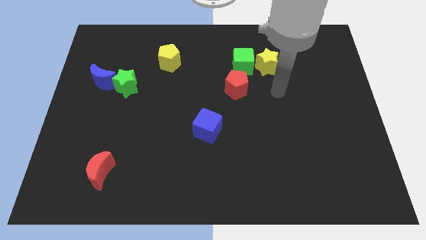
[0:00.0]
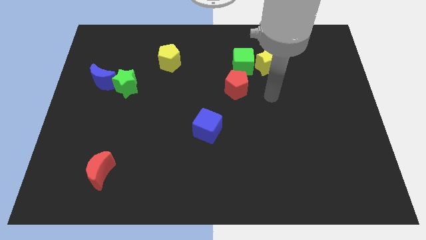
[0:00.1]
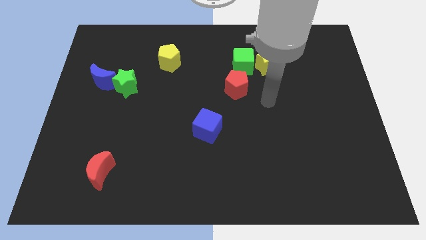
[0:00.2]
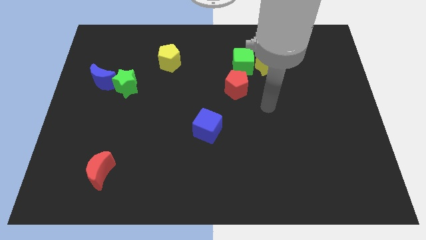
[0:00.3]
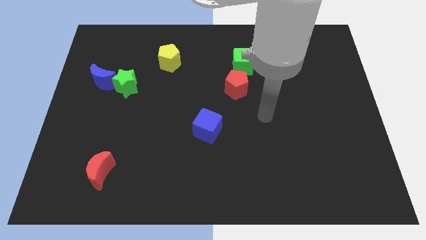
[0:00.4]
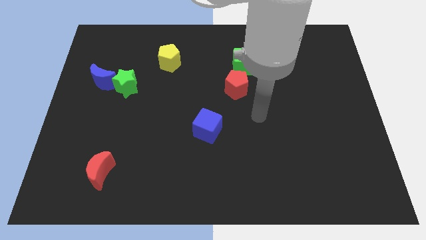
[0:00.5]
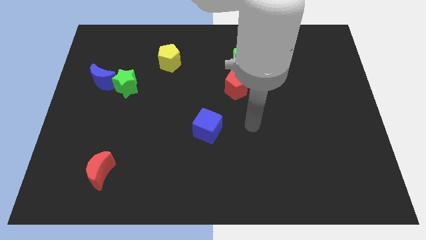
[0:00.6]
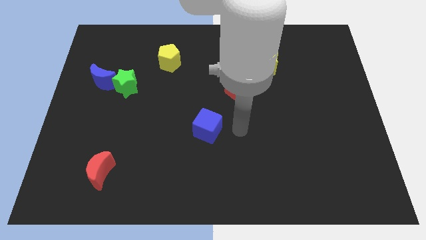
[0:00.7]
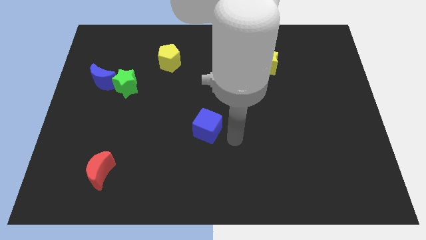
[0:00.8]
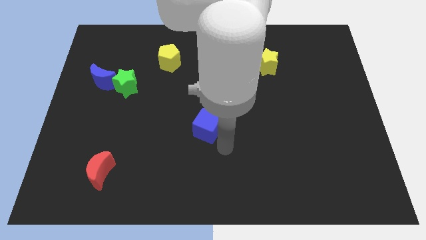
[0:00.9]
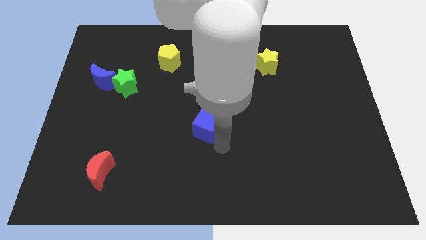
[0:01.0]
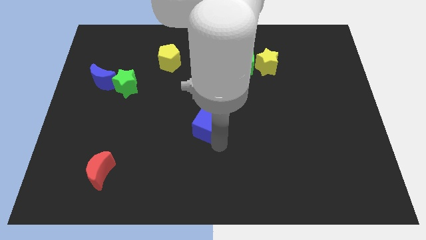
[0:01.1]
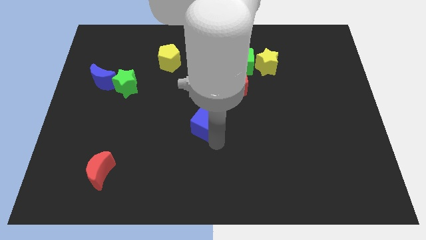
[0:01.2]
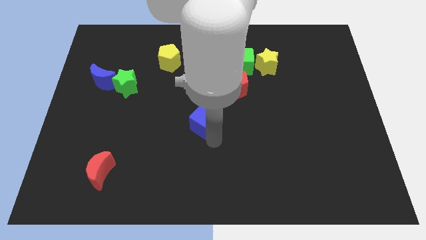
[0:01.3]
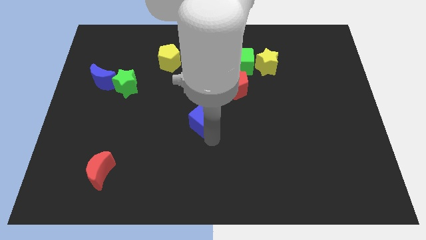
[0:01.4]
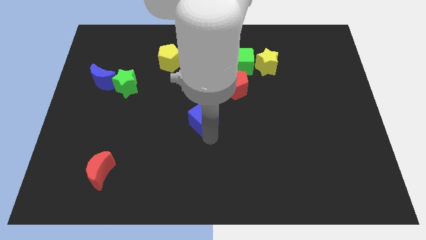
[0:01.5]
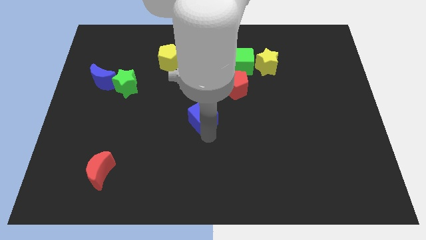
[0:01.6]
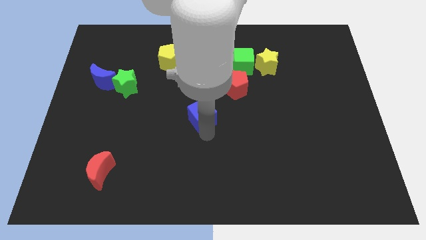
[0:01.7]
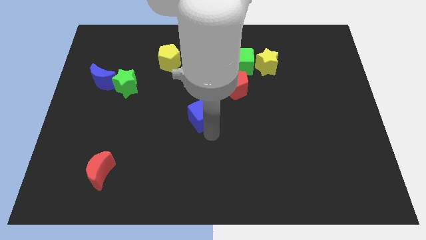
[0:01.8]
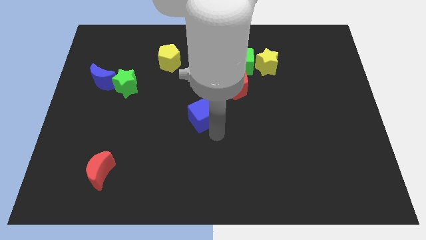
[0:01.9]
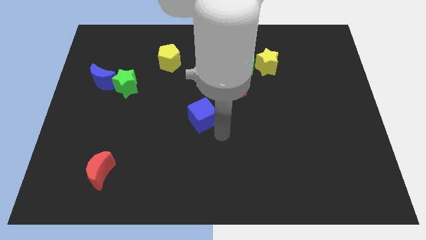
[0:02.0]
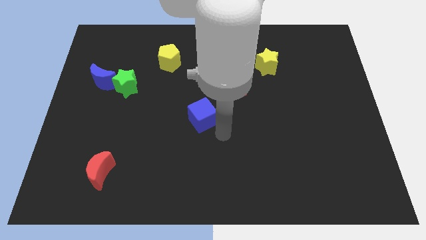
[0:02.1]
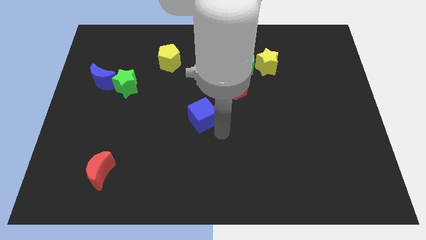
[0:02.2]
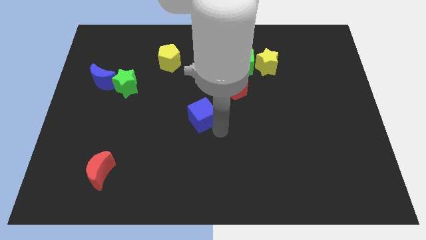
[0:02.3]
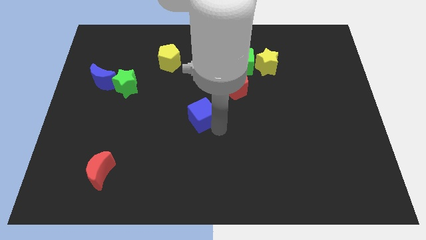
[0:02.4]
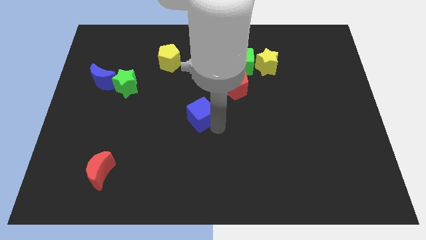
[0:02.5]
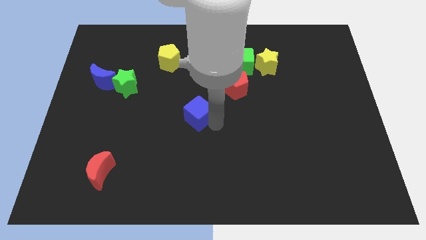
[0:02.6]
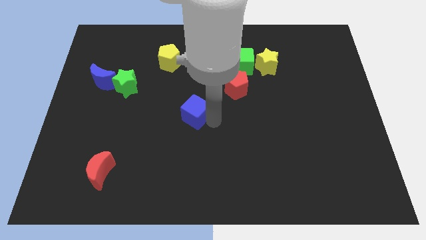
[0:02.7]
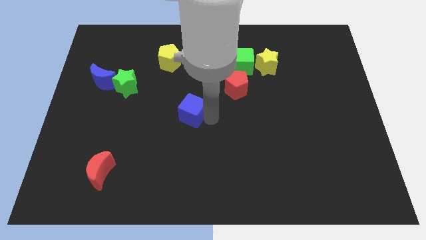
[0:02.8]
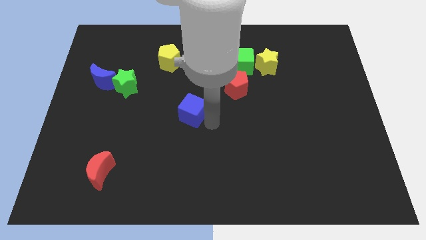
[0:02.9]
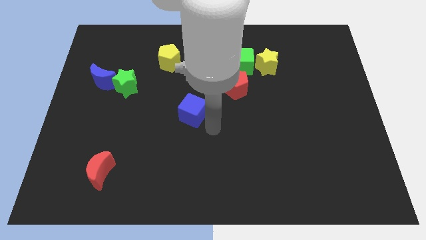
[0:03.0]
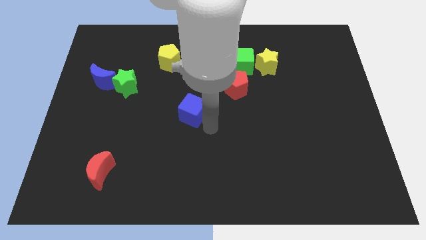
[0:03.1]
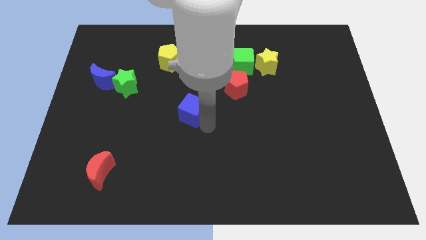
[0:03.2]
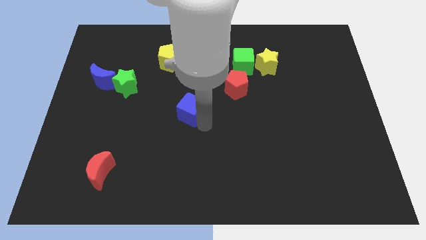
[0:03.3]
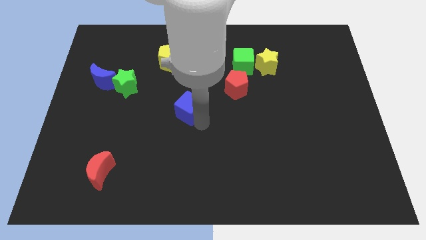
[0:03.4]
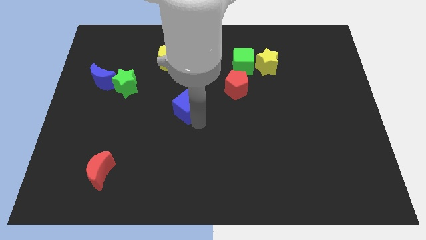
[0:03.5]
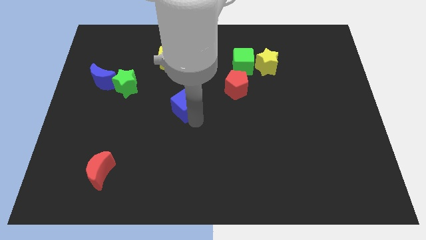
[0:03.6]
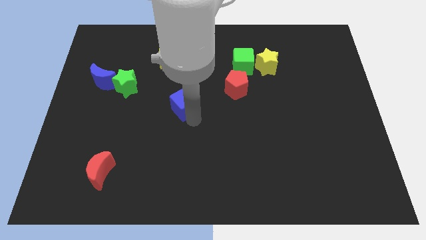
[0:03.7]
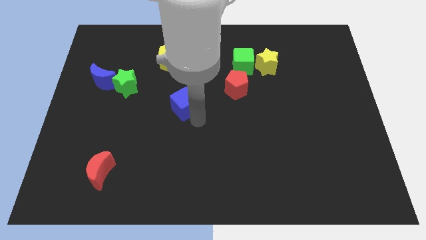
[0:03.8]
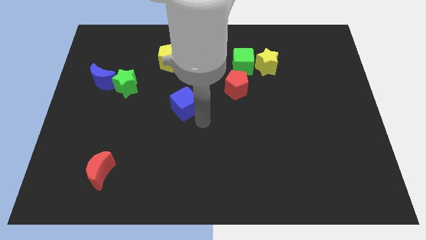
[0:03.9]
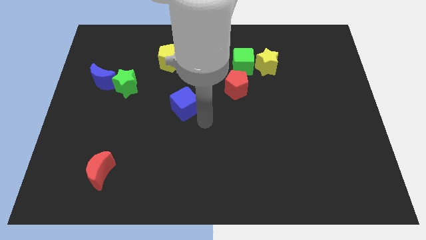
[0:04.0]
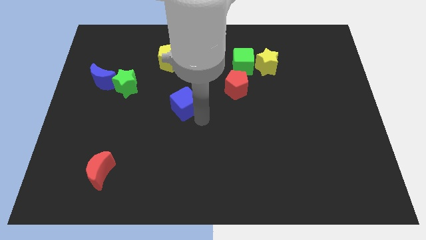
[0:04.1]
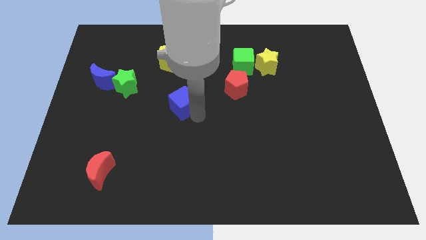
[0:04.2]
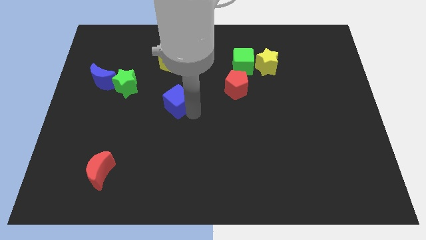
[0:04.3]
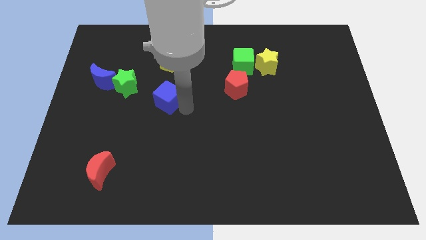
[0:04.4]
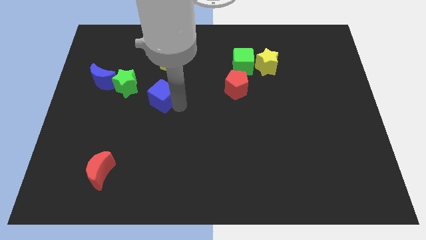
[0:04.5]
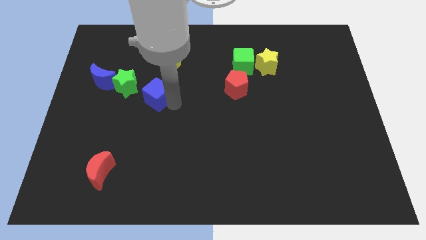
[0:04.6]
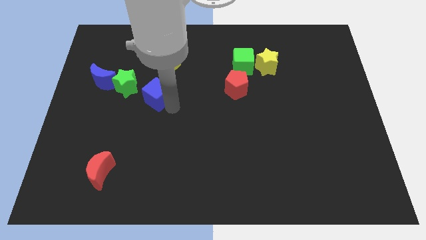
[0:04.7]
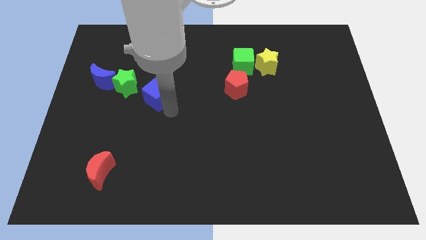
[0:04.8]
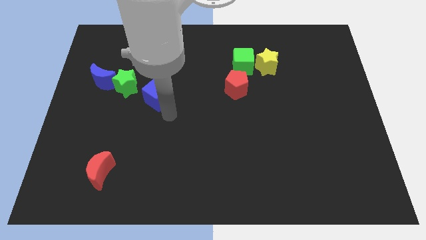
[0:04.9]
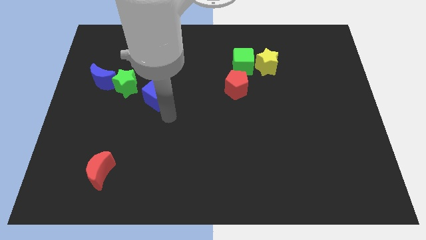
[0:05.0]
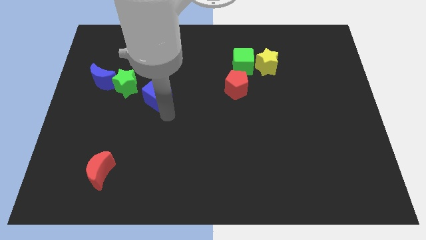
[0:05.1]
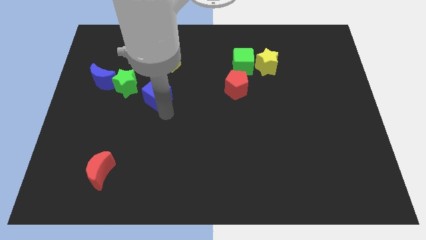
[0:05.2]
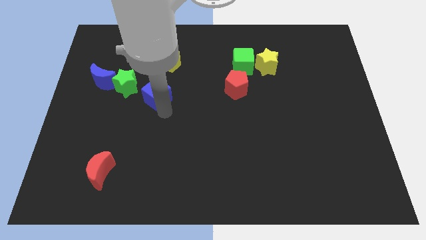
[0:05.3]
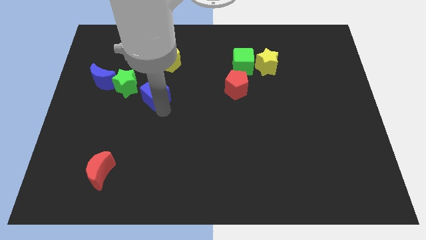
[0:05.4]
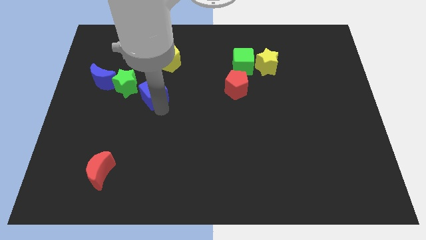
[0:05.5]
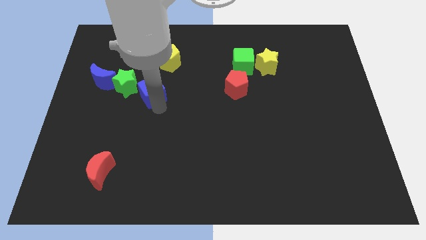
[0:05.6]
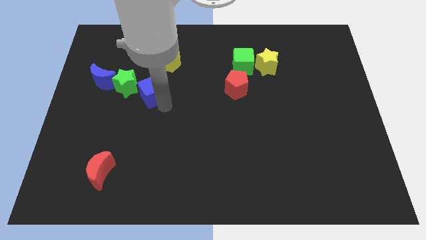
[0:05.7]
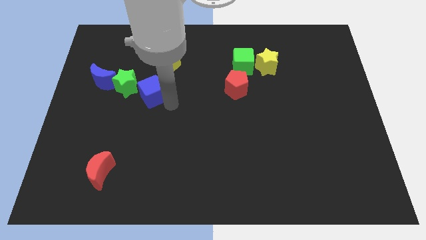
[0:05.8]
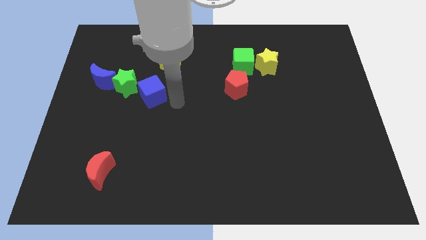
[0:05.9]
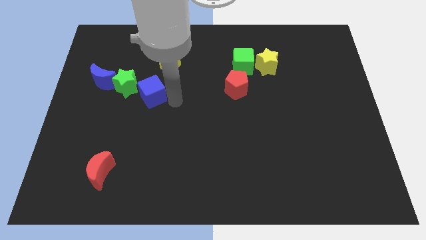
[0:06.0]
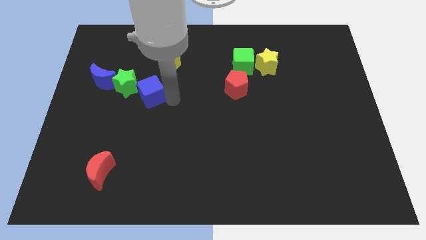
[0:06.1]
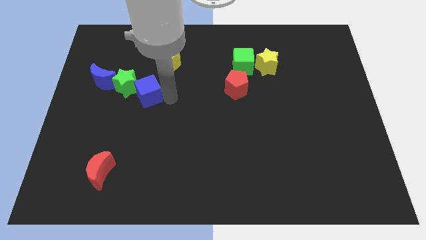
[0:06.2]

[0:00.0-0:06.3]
slide the blue cube to the green star

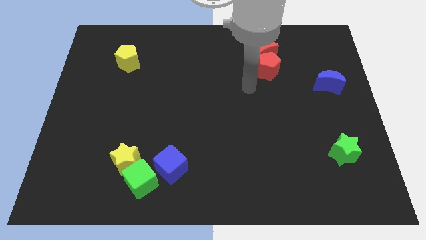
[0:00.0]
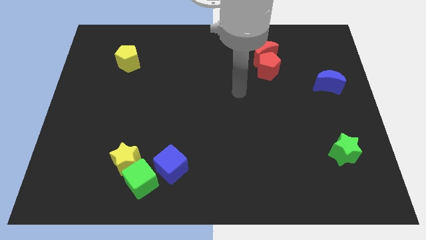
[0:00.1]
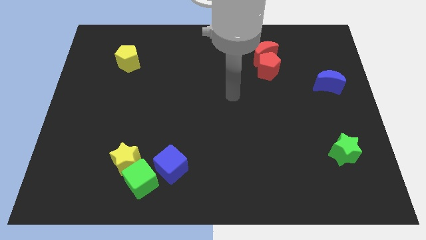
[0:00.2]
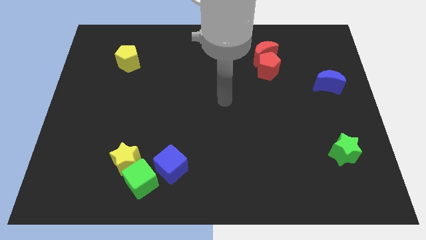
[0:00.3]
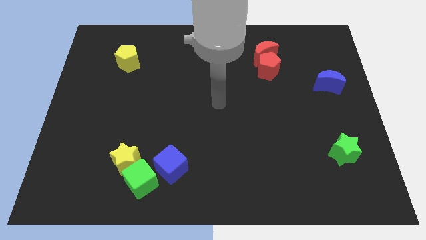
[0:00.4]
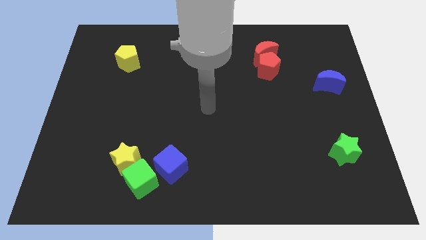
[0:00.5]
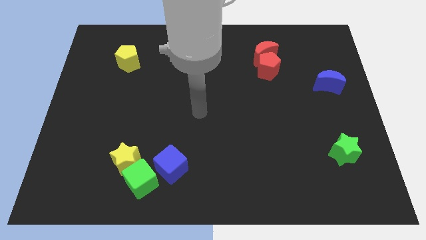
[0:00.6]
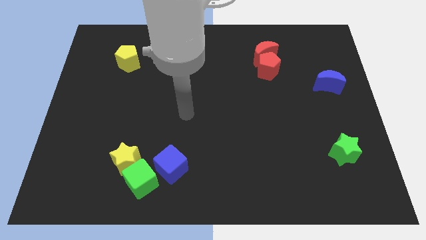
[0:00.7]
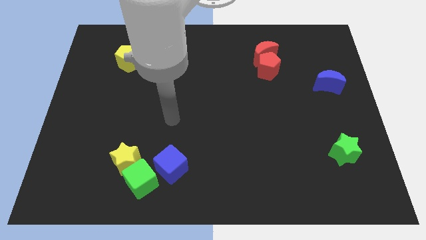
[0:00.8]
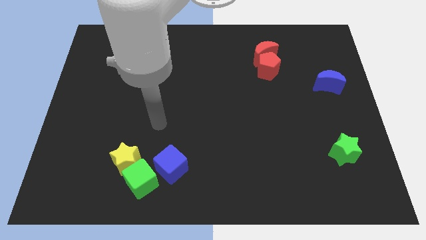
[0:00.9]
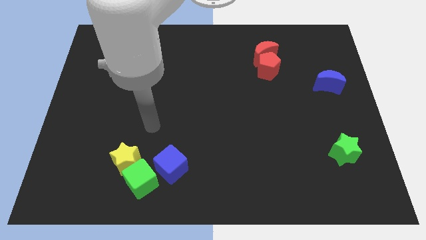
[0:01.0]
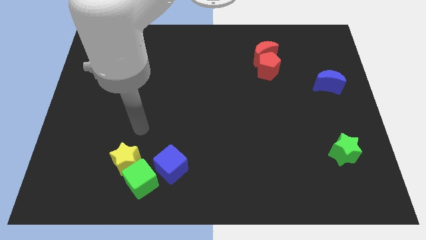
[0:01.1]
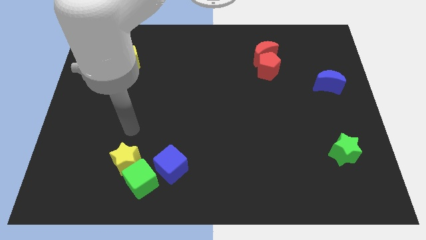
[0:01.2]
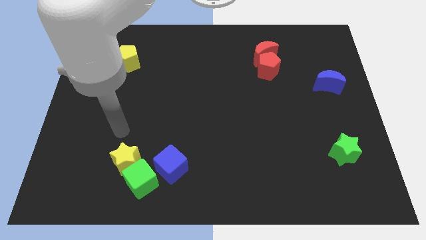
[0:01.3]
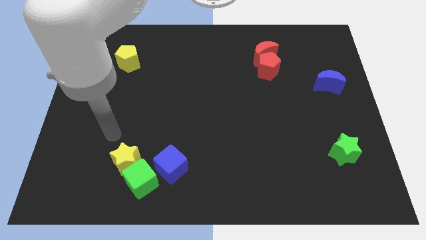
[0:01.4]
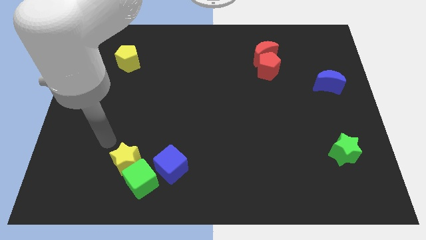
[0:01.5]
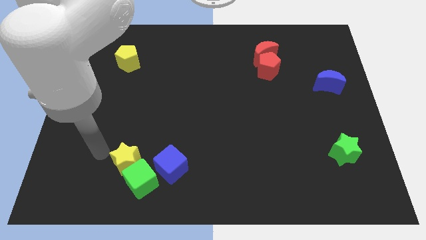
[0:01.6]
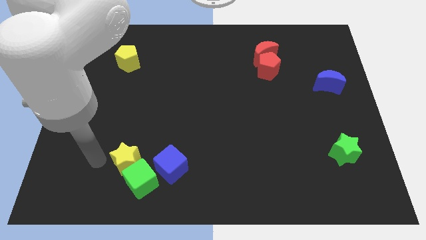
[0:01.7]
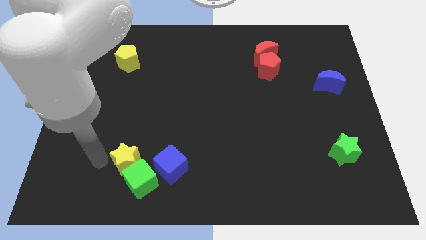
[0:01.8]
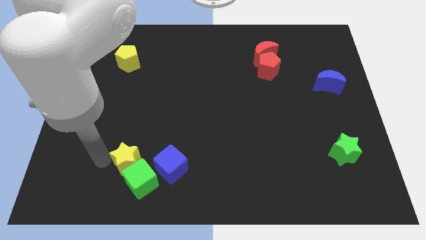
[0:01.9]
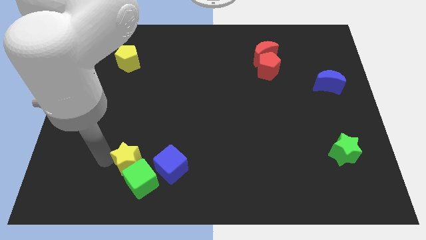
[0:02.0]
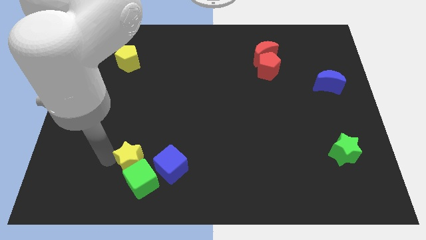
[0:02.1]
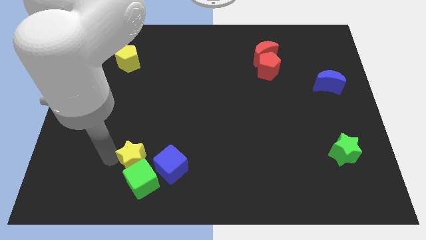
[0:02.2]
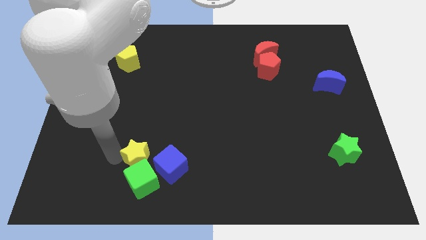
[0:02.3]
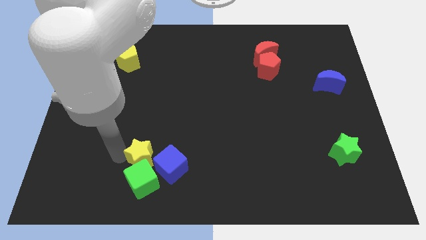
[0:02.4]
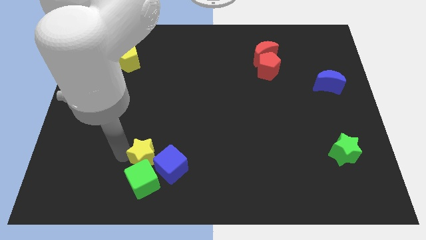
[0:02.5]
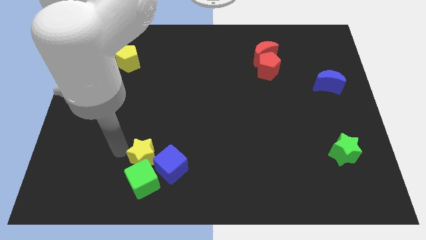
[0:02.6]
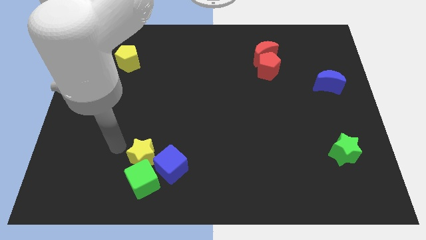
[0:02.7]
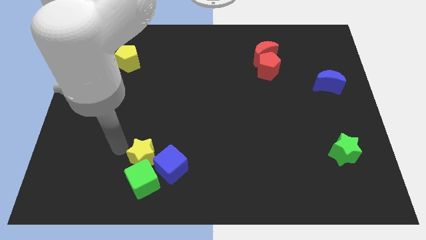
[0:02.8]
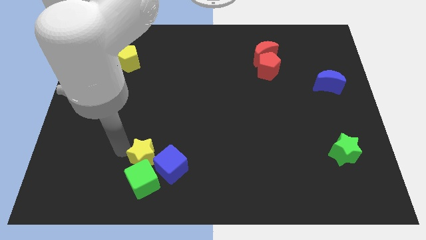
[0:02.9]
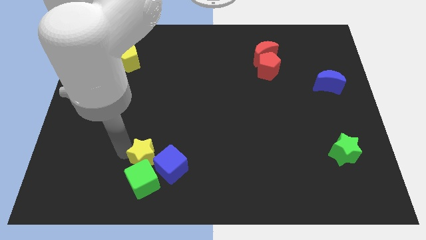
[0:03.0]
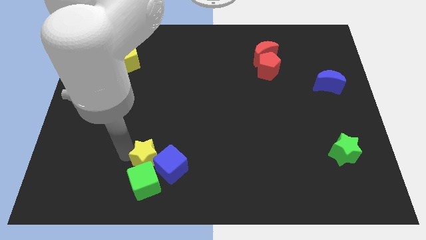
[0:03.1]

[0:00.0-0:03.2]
slide the yellow star towards the blue cube
